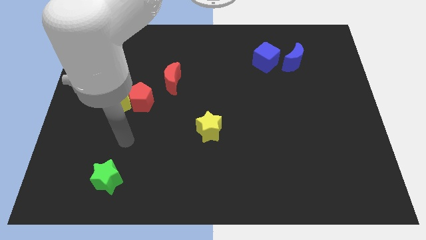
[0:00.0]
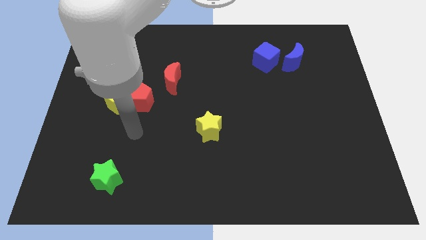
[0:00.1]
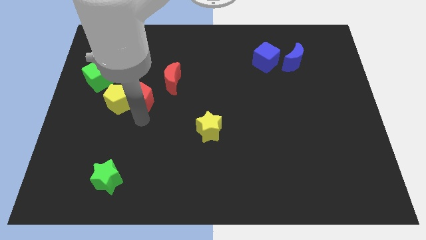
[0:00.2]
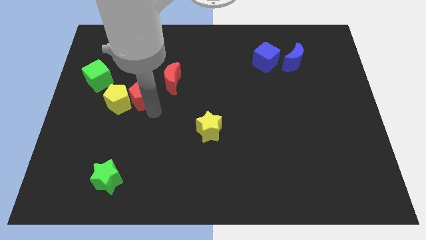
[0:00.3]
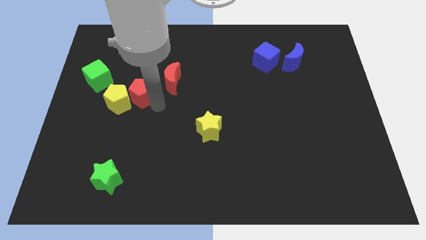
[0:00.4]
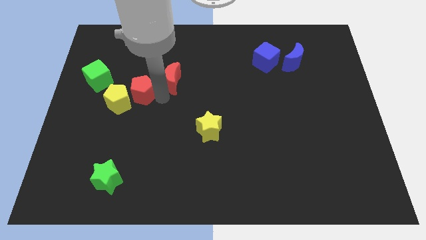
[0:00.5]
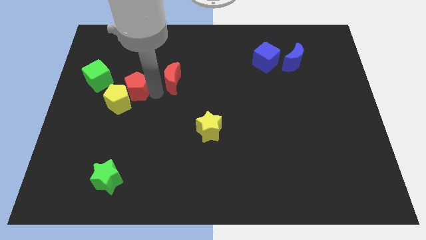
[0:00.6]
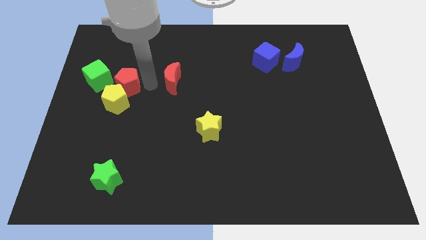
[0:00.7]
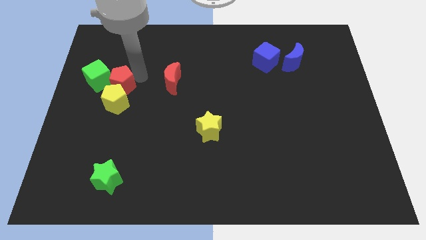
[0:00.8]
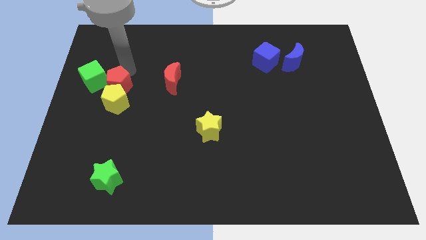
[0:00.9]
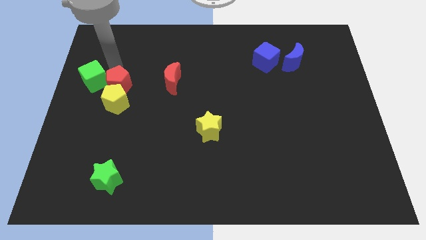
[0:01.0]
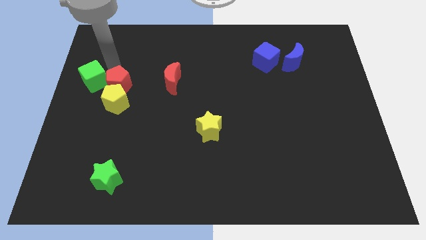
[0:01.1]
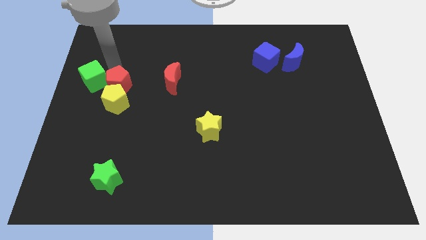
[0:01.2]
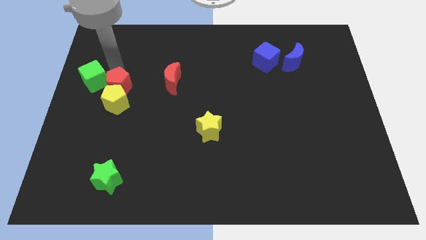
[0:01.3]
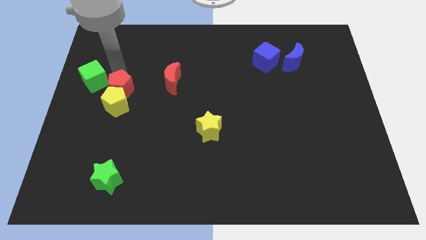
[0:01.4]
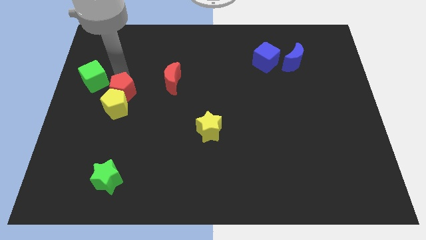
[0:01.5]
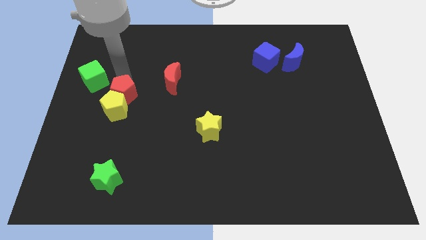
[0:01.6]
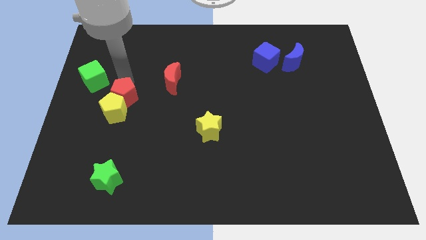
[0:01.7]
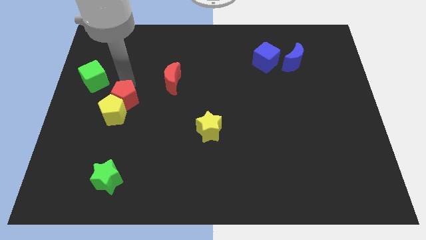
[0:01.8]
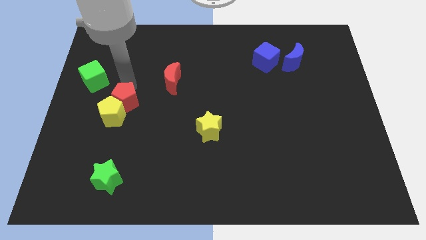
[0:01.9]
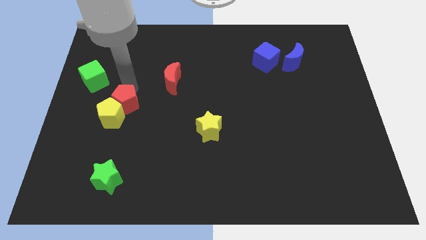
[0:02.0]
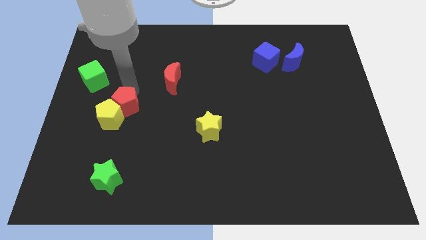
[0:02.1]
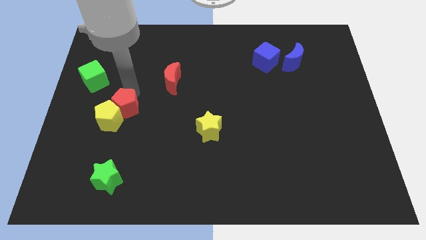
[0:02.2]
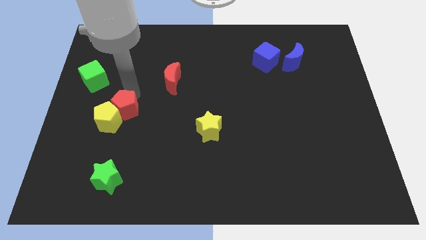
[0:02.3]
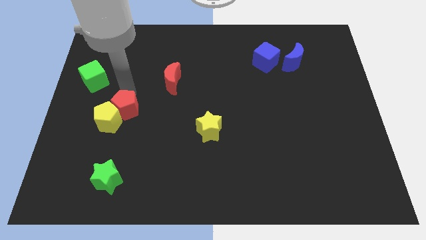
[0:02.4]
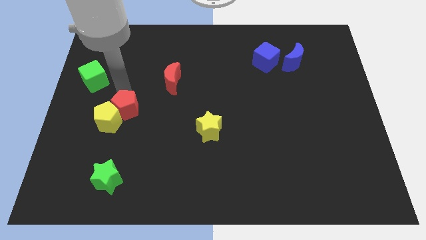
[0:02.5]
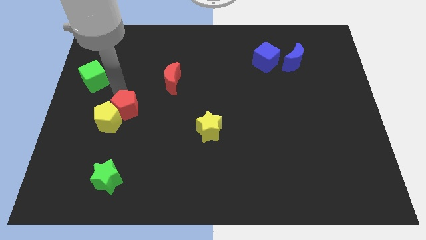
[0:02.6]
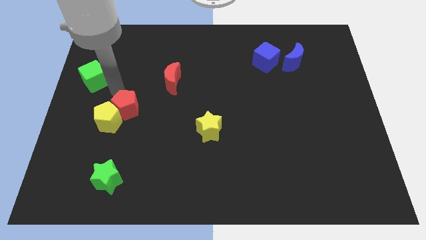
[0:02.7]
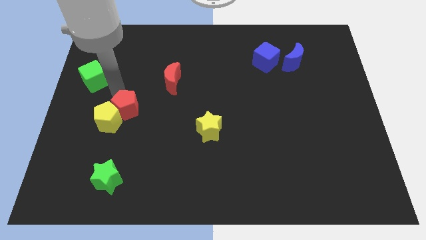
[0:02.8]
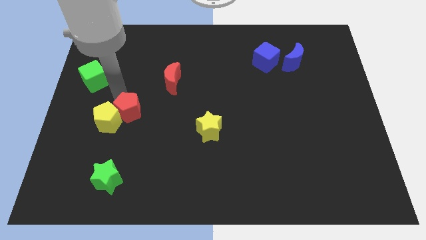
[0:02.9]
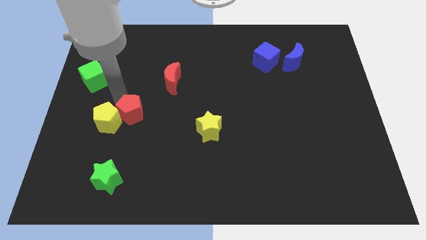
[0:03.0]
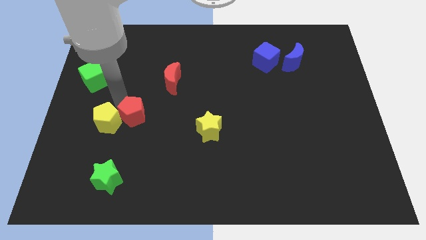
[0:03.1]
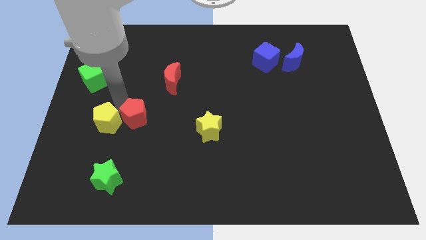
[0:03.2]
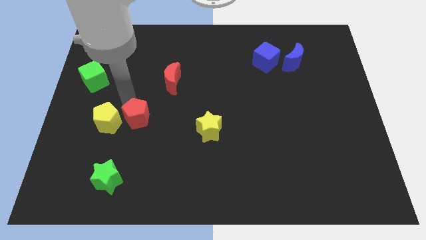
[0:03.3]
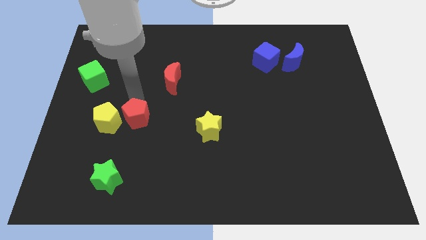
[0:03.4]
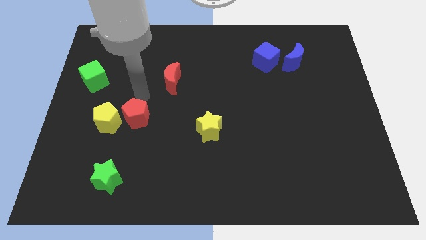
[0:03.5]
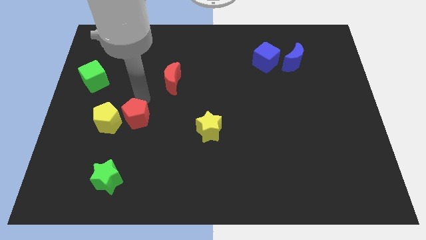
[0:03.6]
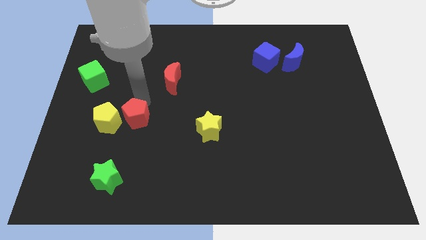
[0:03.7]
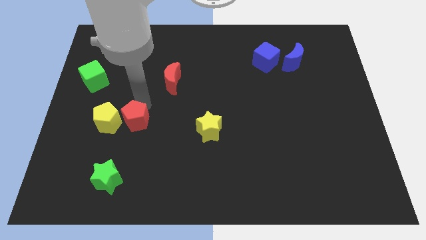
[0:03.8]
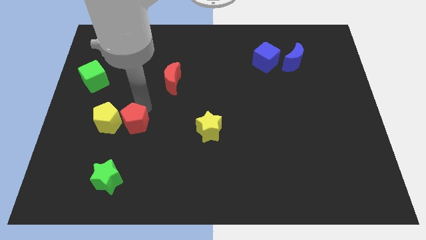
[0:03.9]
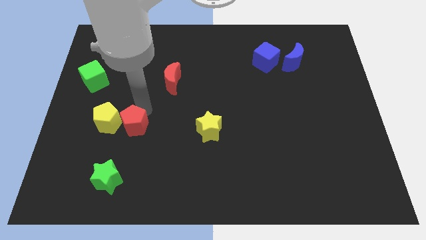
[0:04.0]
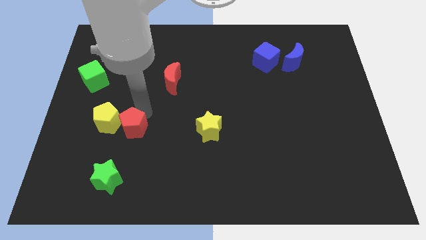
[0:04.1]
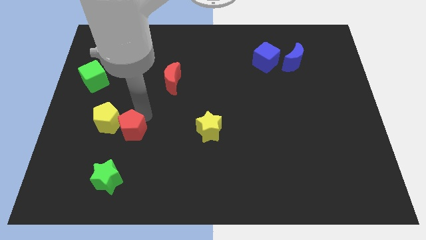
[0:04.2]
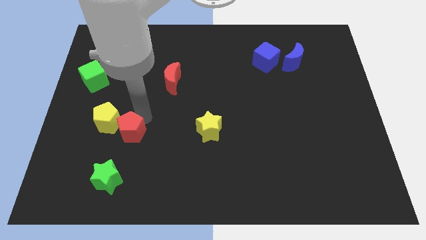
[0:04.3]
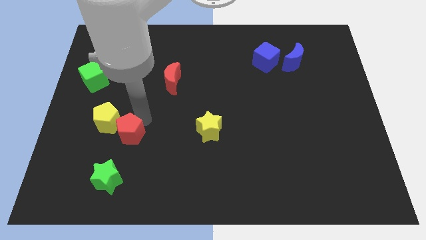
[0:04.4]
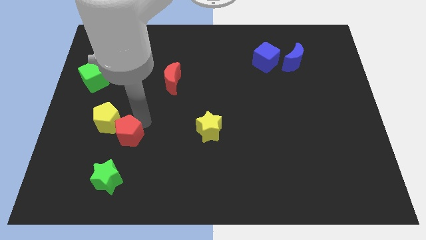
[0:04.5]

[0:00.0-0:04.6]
separate the red pentagon from the yellow pentagon and red moon

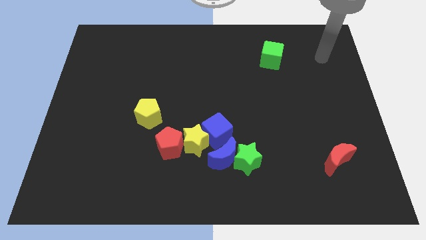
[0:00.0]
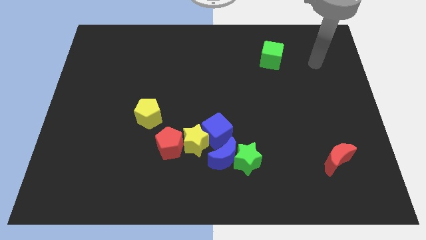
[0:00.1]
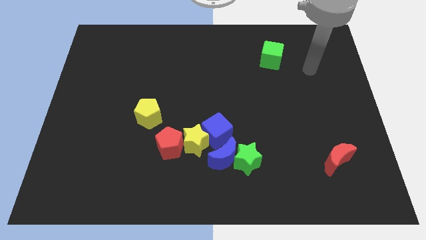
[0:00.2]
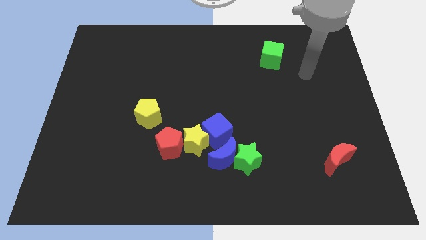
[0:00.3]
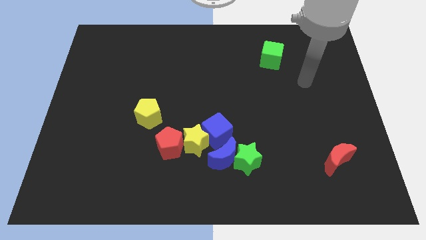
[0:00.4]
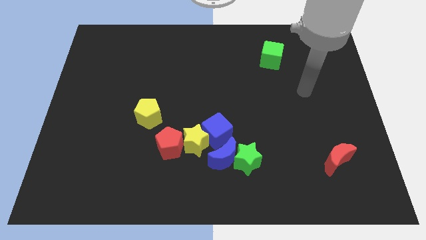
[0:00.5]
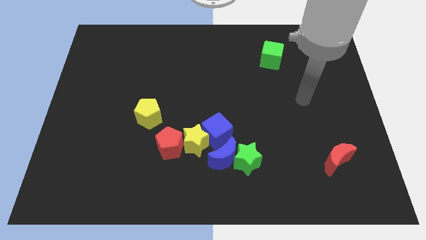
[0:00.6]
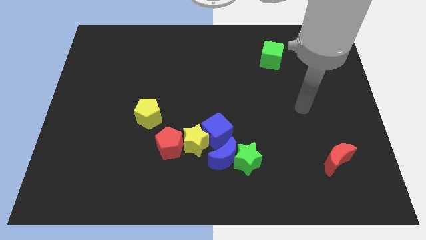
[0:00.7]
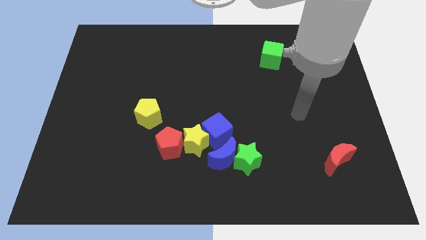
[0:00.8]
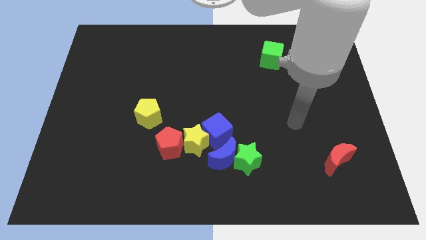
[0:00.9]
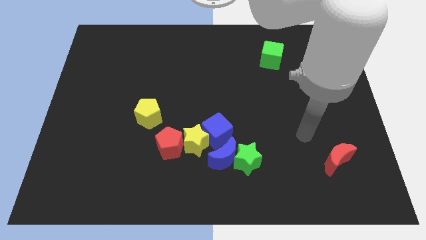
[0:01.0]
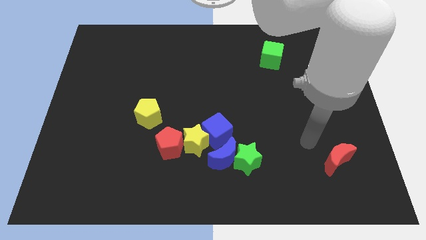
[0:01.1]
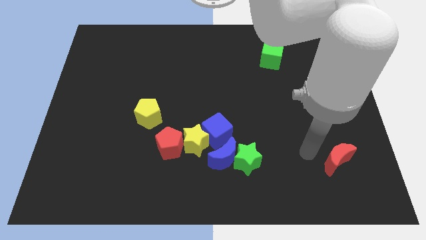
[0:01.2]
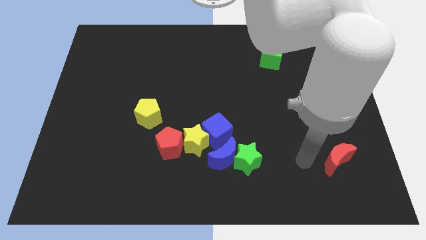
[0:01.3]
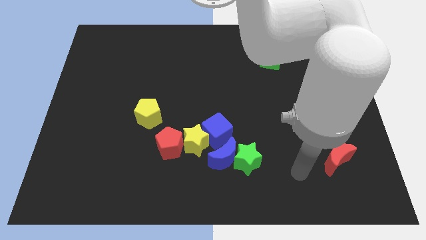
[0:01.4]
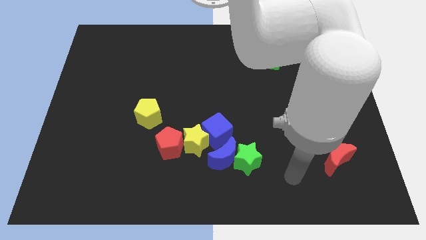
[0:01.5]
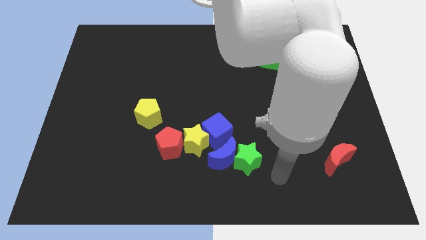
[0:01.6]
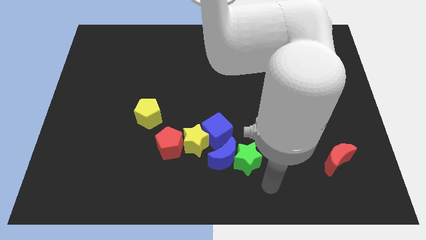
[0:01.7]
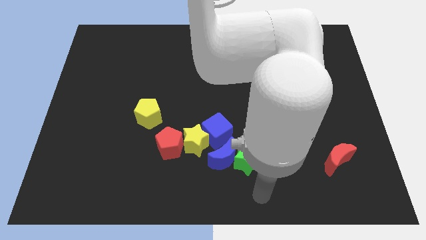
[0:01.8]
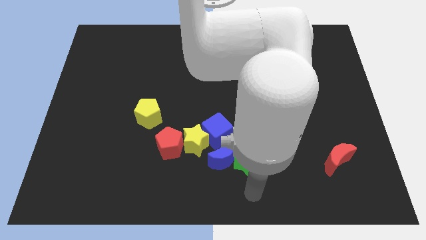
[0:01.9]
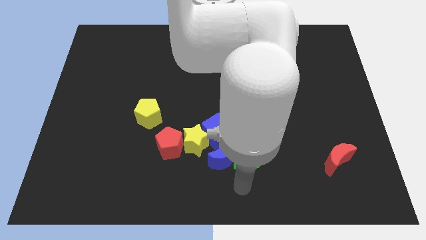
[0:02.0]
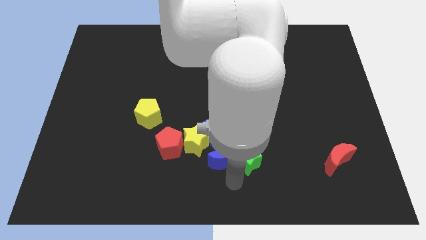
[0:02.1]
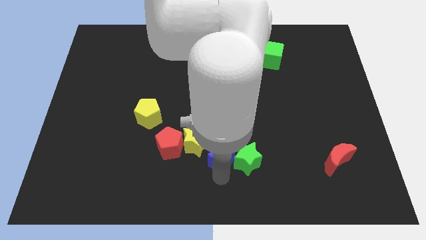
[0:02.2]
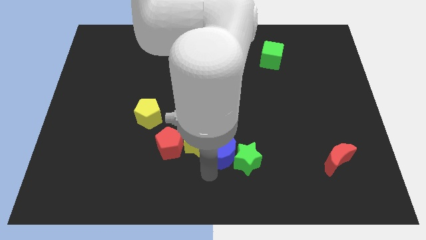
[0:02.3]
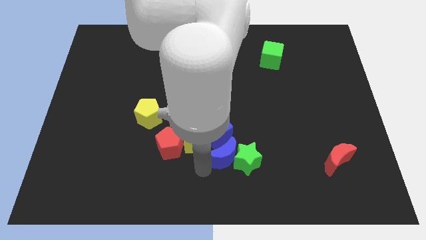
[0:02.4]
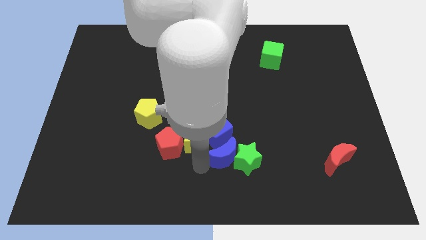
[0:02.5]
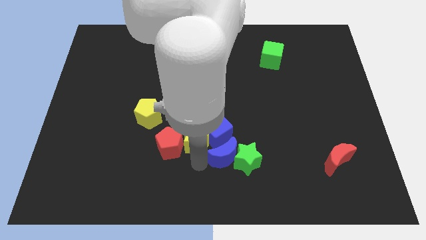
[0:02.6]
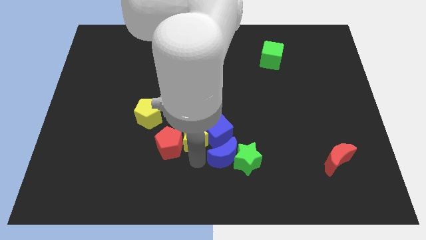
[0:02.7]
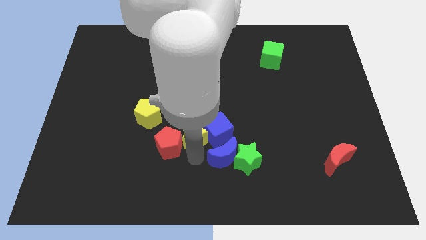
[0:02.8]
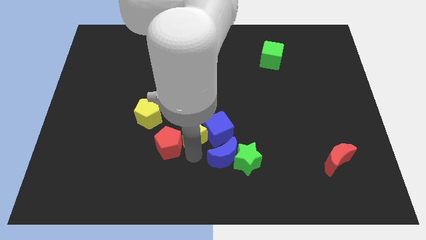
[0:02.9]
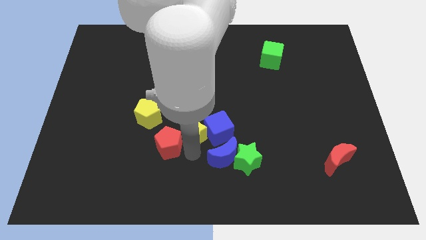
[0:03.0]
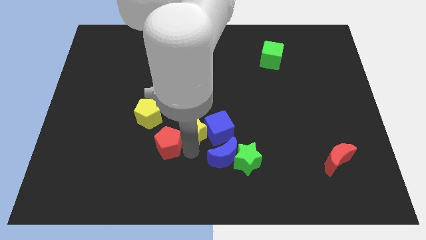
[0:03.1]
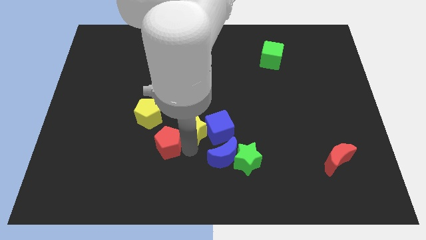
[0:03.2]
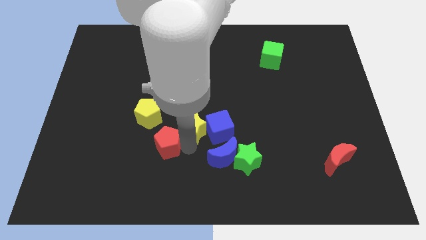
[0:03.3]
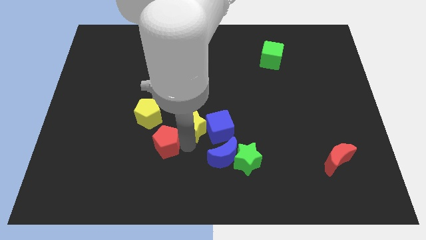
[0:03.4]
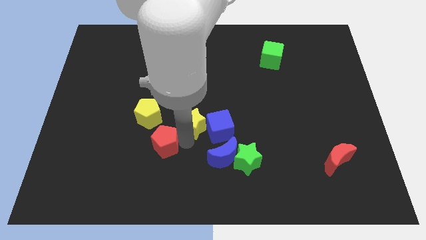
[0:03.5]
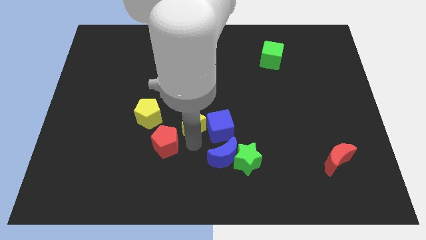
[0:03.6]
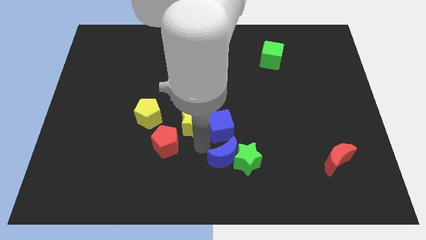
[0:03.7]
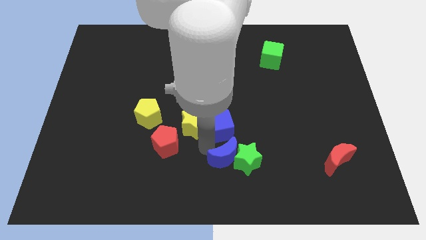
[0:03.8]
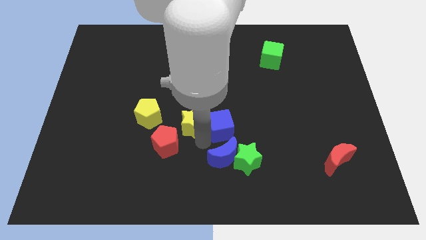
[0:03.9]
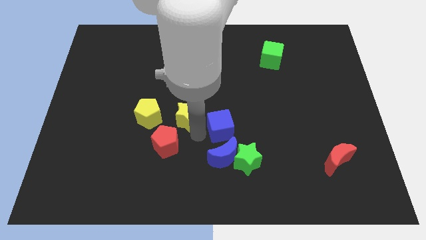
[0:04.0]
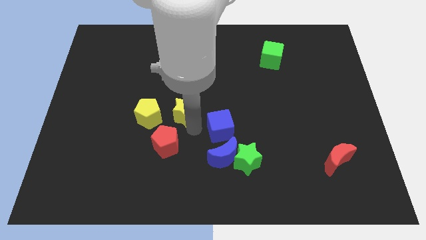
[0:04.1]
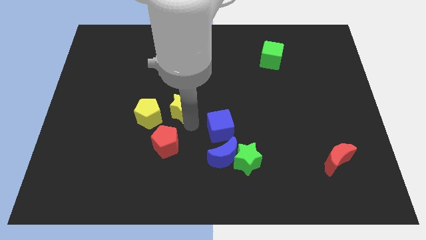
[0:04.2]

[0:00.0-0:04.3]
move the yellow star away from the group of blocks

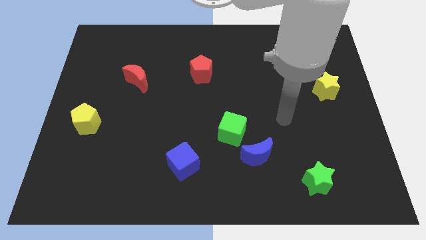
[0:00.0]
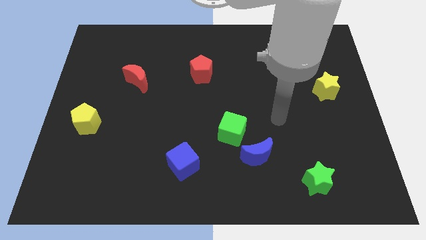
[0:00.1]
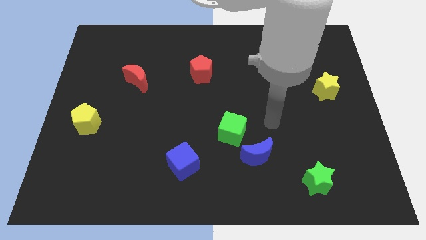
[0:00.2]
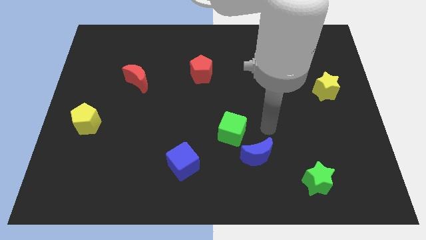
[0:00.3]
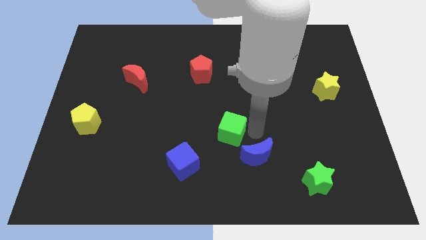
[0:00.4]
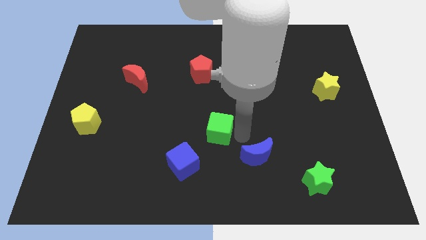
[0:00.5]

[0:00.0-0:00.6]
pull the blue moon apart from the green cube
